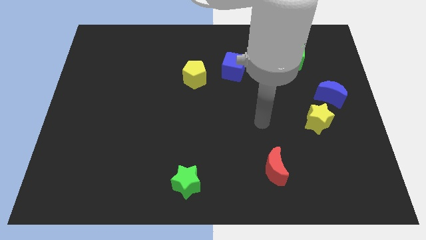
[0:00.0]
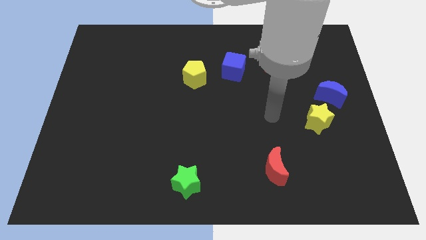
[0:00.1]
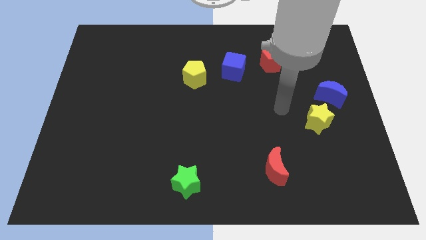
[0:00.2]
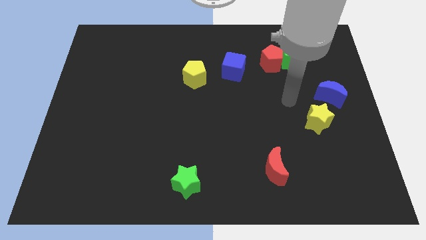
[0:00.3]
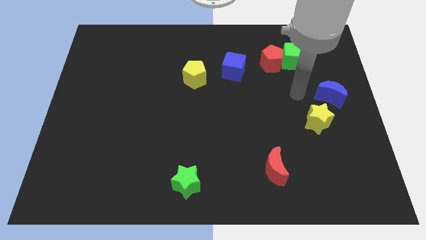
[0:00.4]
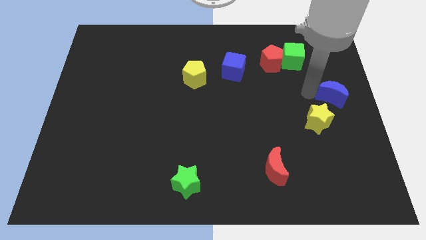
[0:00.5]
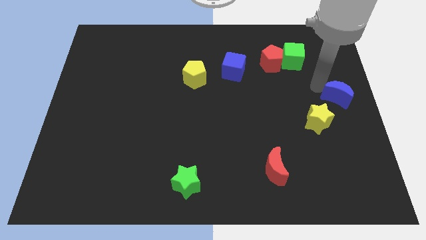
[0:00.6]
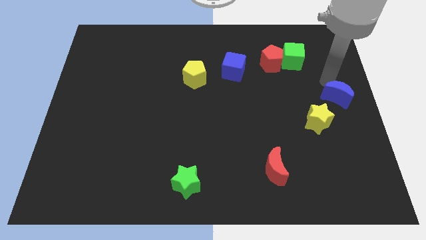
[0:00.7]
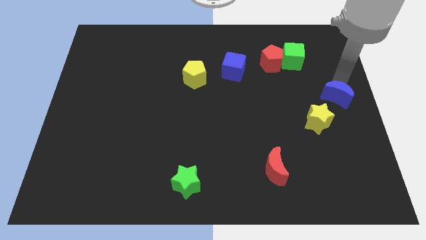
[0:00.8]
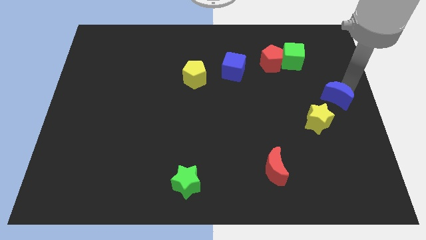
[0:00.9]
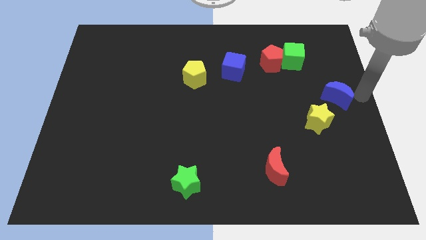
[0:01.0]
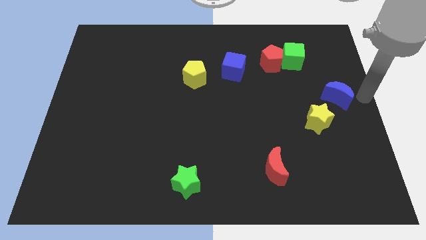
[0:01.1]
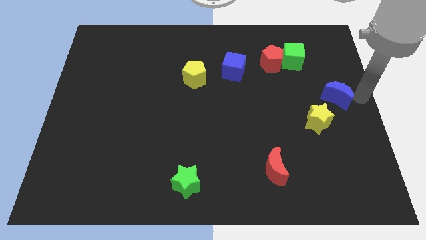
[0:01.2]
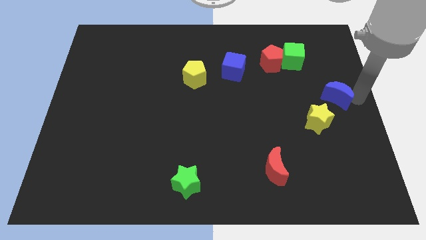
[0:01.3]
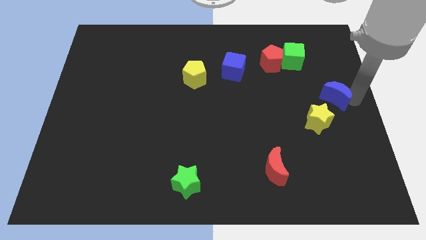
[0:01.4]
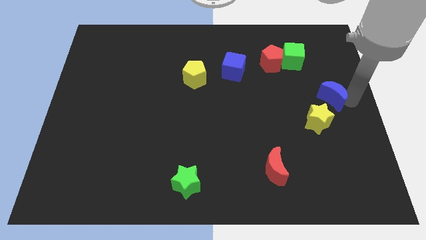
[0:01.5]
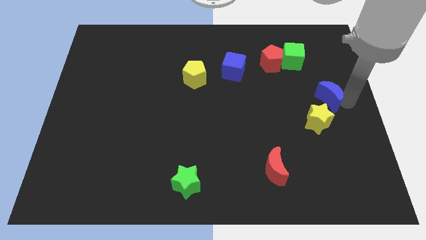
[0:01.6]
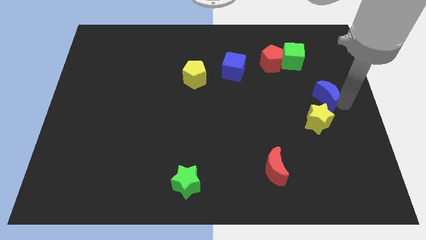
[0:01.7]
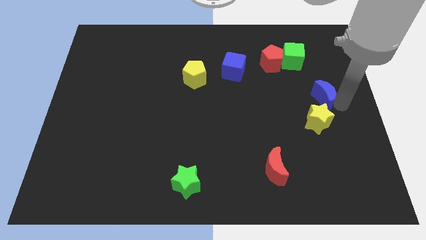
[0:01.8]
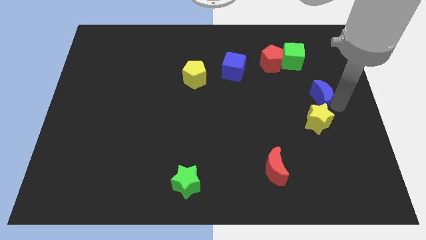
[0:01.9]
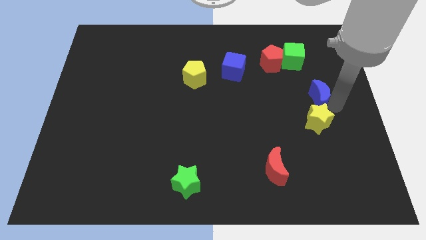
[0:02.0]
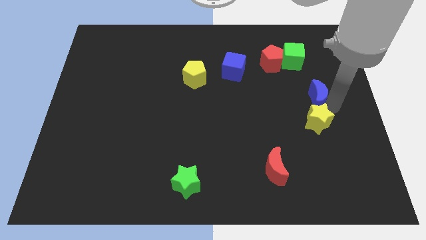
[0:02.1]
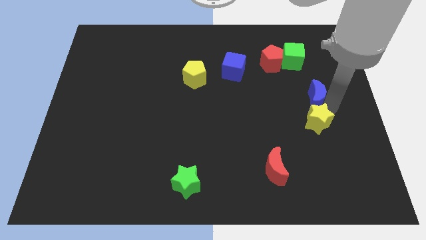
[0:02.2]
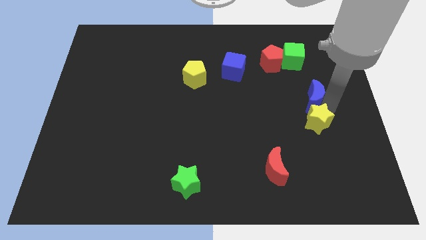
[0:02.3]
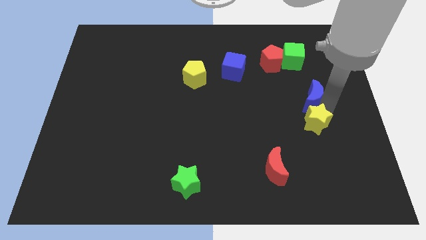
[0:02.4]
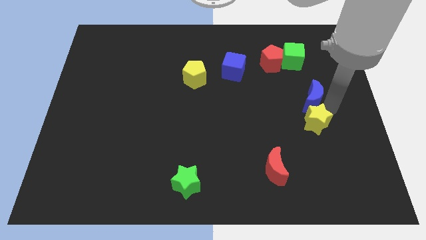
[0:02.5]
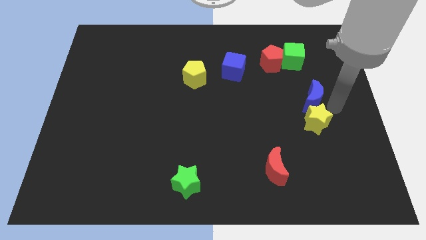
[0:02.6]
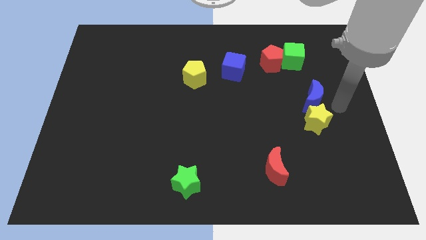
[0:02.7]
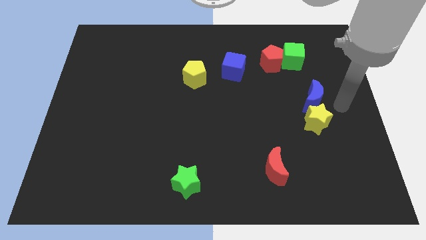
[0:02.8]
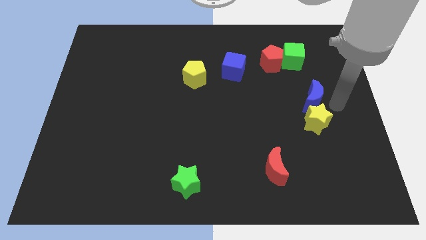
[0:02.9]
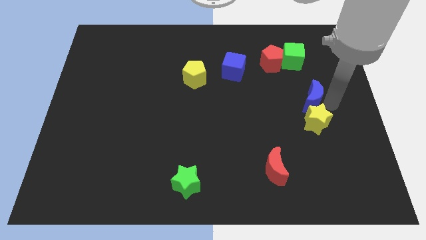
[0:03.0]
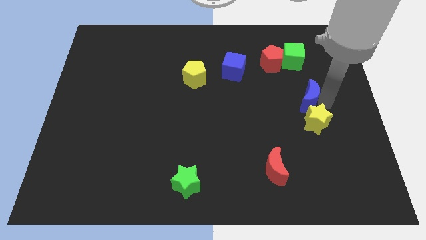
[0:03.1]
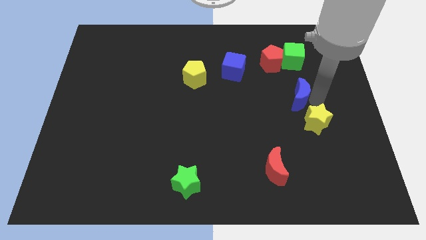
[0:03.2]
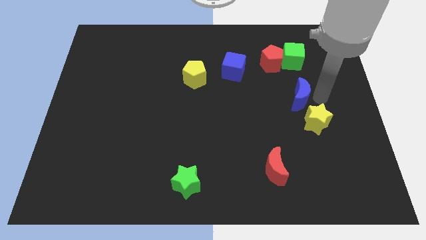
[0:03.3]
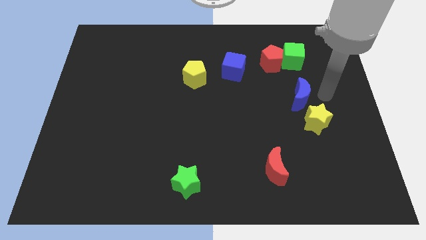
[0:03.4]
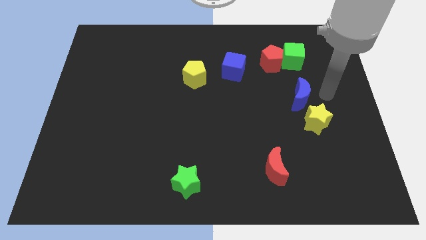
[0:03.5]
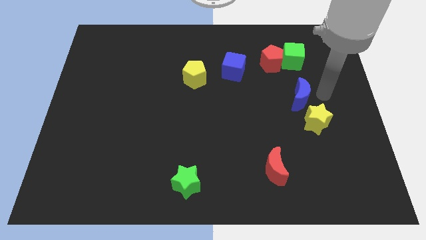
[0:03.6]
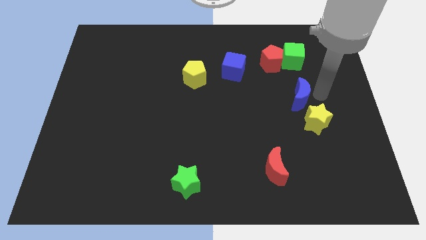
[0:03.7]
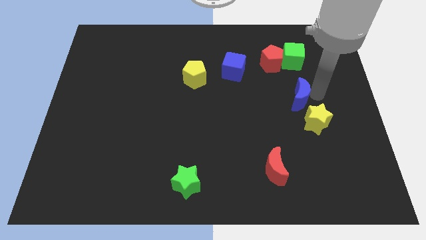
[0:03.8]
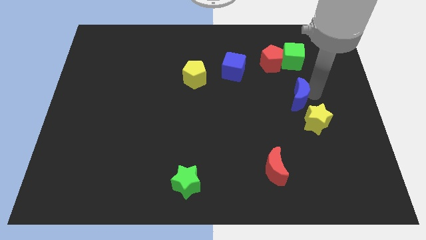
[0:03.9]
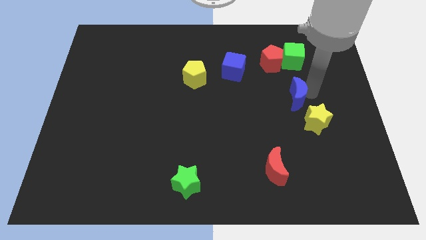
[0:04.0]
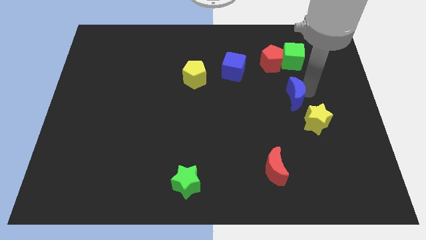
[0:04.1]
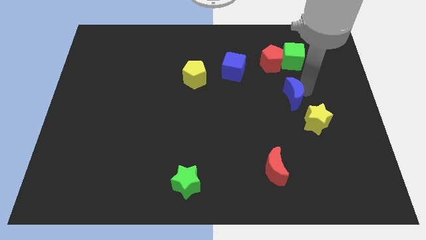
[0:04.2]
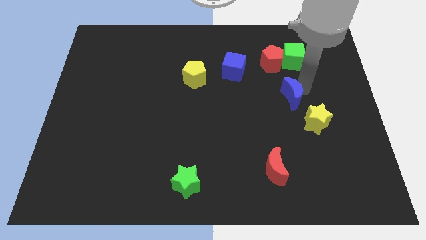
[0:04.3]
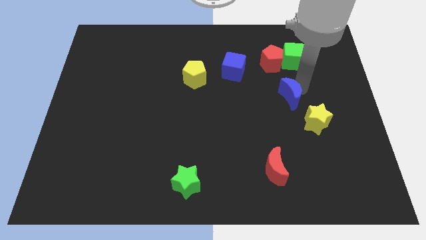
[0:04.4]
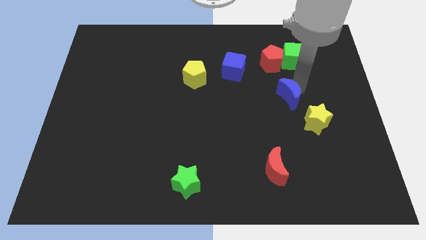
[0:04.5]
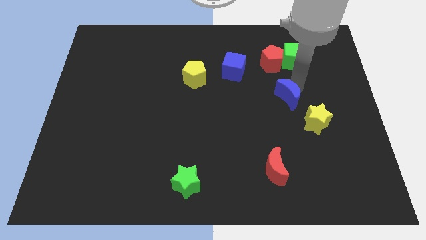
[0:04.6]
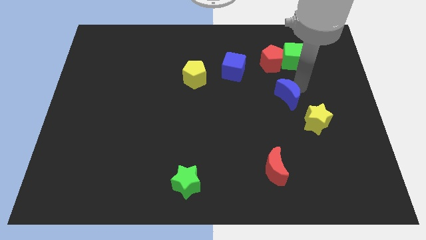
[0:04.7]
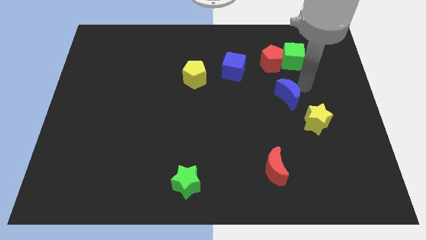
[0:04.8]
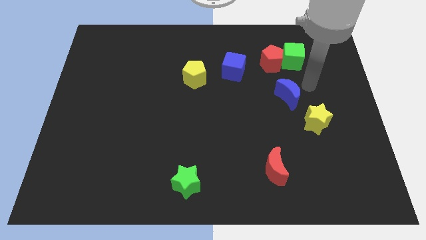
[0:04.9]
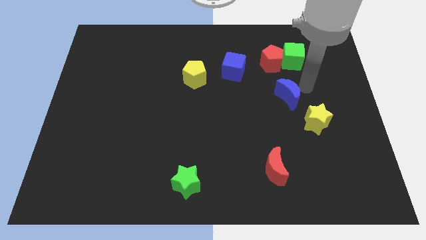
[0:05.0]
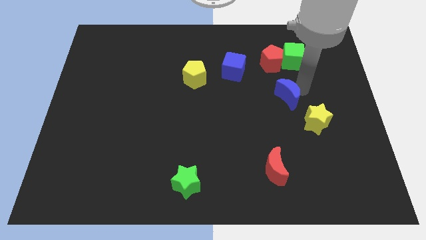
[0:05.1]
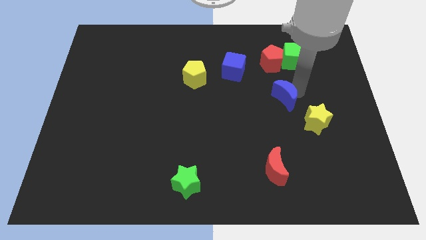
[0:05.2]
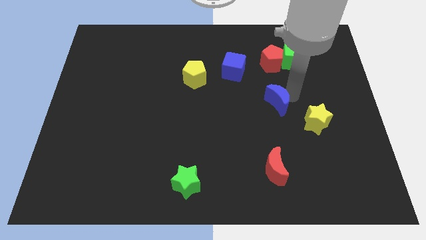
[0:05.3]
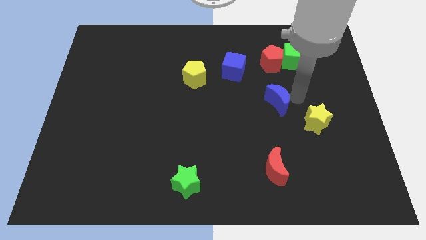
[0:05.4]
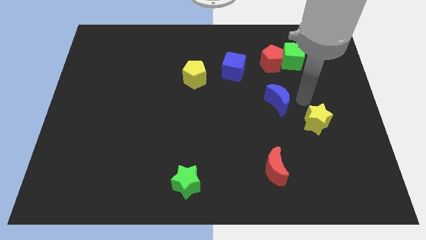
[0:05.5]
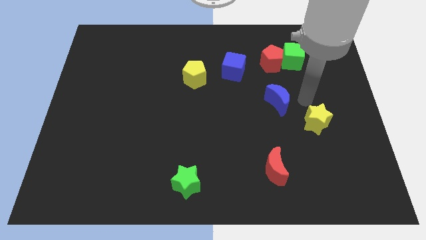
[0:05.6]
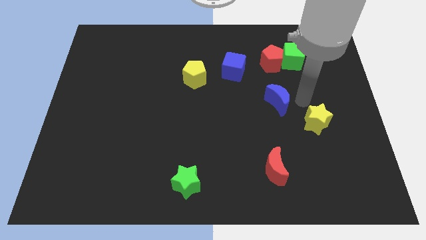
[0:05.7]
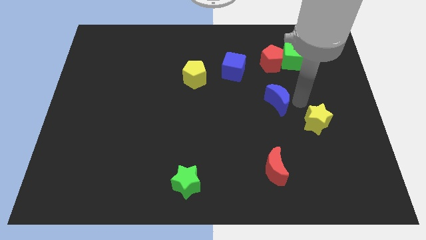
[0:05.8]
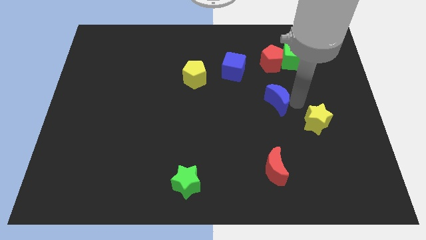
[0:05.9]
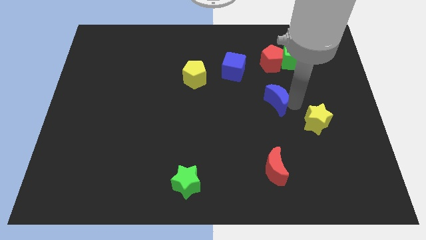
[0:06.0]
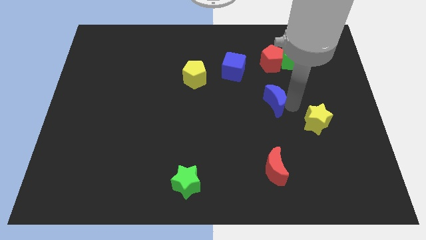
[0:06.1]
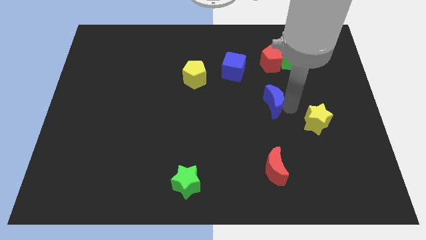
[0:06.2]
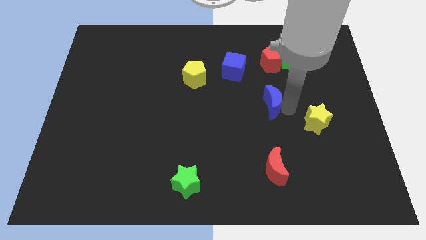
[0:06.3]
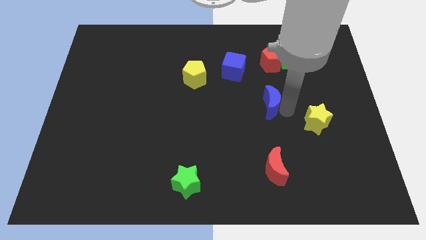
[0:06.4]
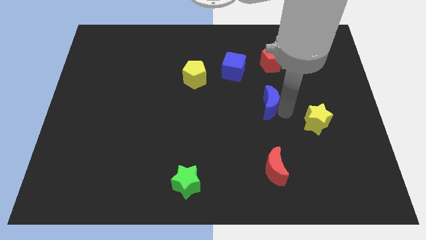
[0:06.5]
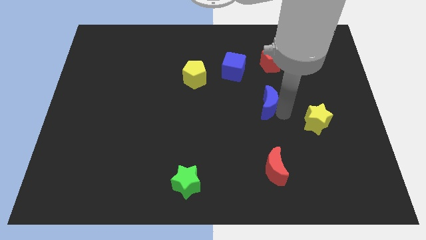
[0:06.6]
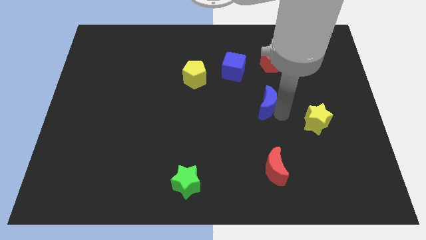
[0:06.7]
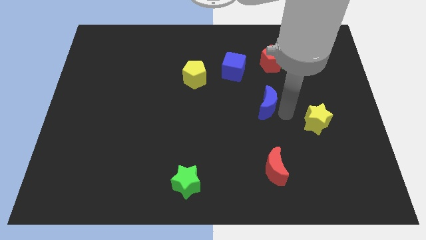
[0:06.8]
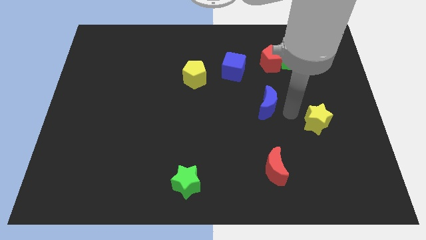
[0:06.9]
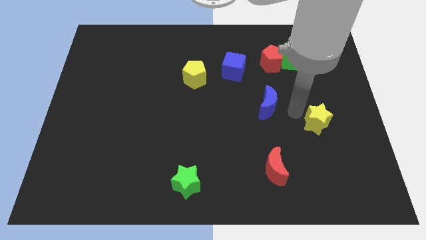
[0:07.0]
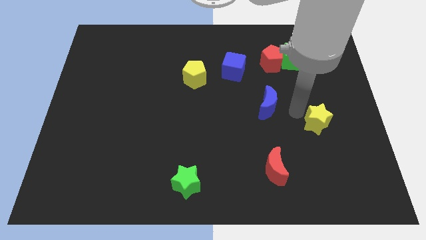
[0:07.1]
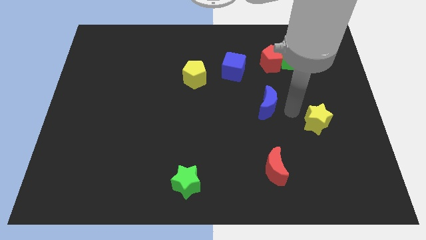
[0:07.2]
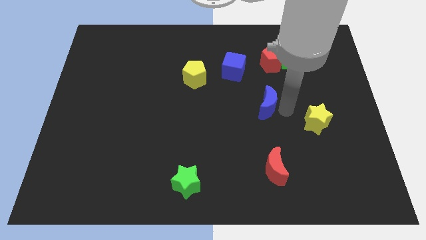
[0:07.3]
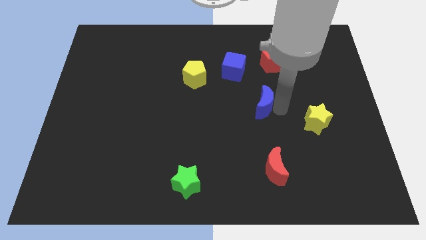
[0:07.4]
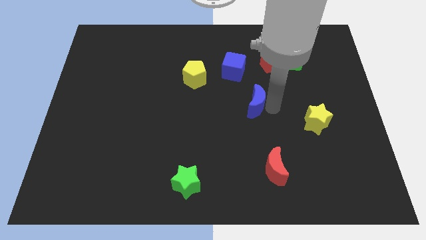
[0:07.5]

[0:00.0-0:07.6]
slide the blue moon to the bottom of the blue cube
